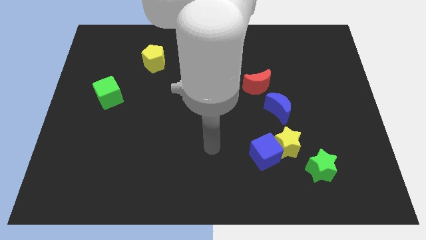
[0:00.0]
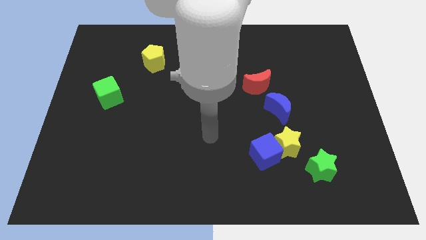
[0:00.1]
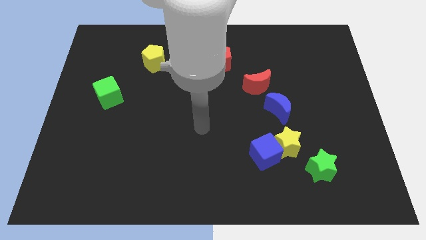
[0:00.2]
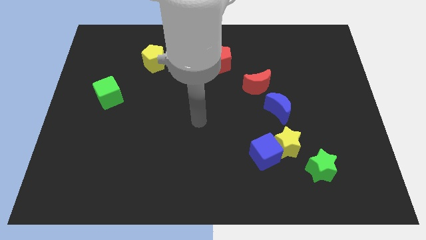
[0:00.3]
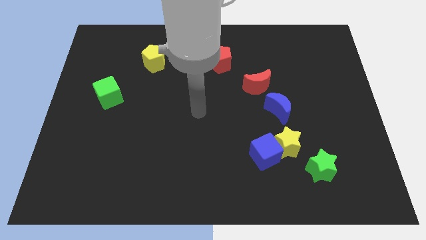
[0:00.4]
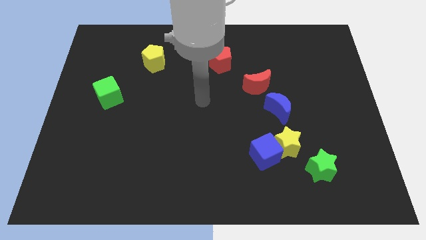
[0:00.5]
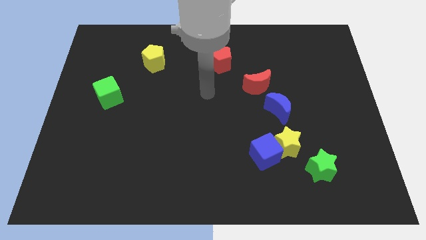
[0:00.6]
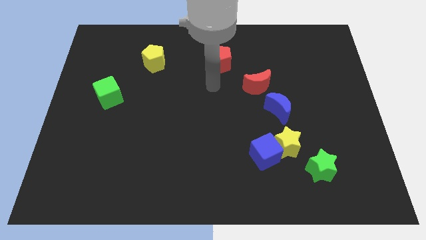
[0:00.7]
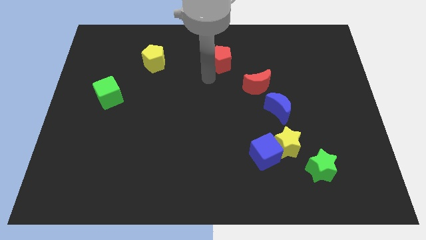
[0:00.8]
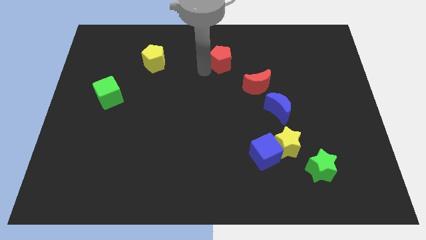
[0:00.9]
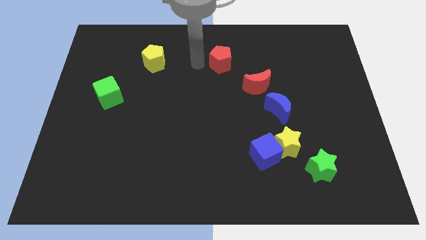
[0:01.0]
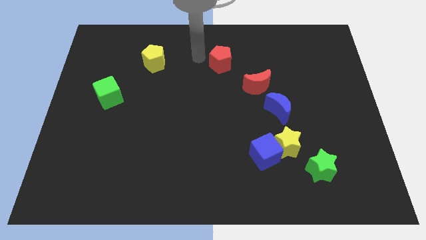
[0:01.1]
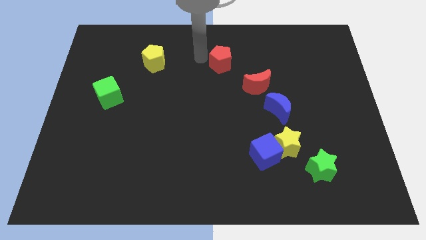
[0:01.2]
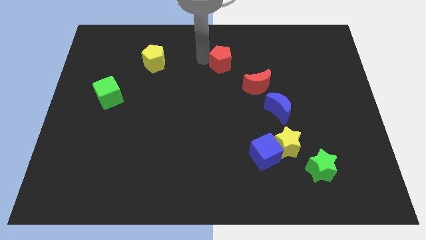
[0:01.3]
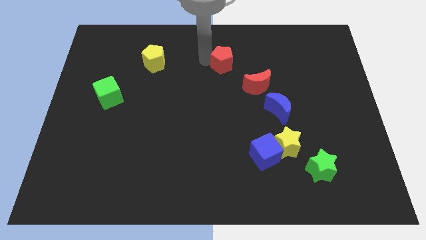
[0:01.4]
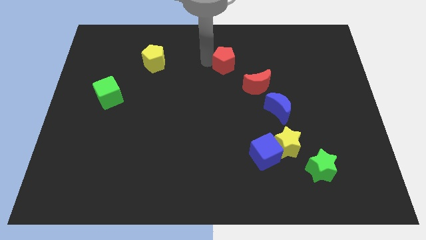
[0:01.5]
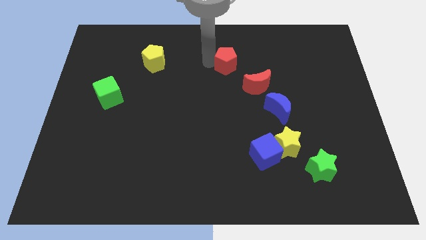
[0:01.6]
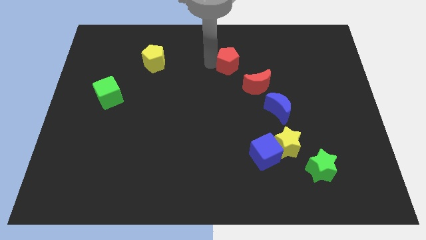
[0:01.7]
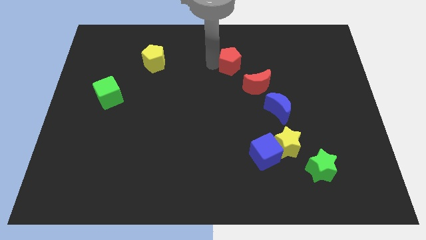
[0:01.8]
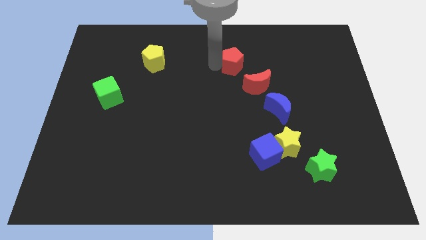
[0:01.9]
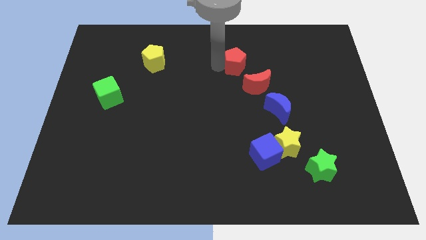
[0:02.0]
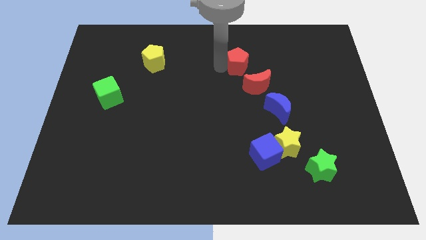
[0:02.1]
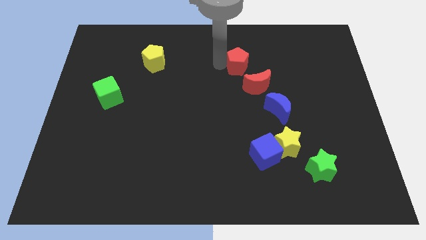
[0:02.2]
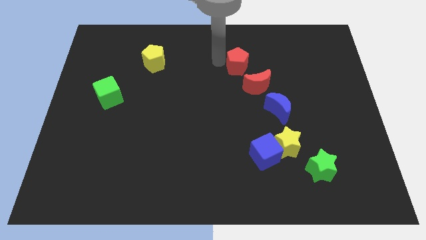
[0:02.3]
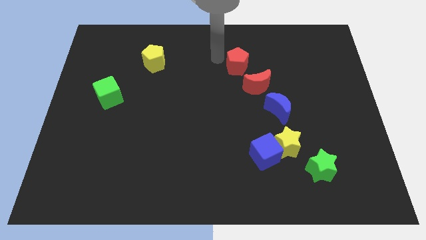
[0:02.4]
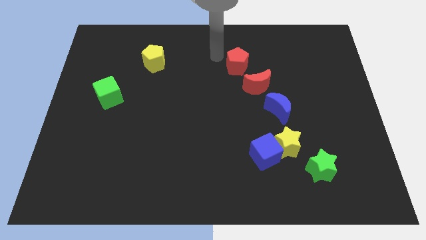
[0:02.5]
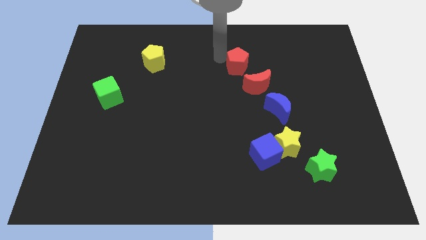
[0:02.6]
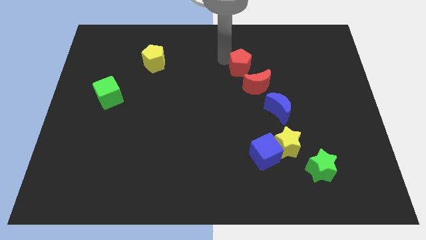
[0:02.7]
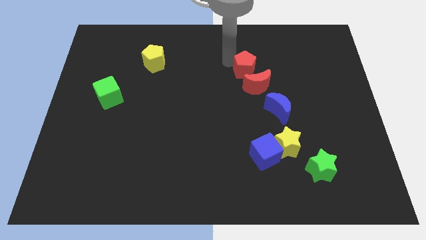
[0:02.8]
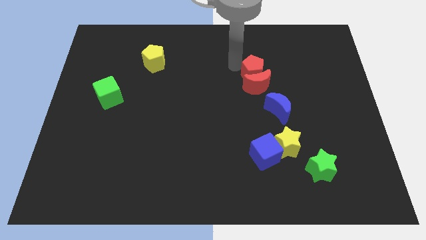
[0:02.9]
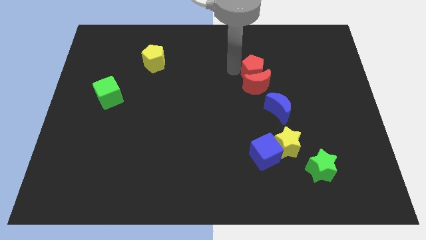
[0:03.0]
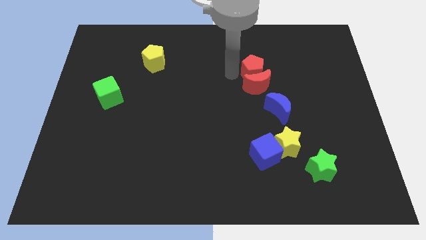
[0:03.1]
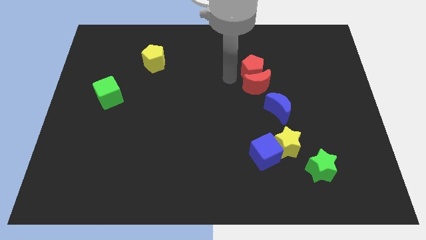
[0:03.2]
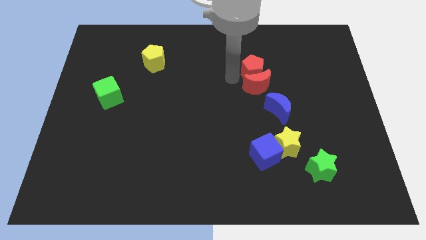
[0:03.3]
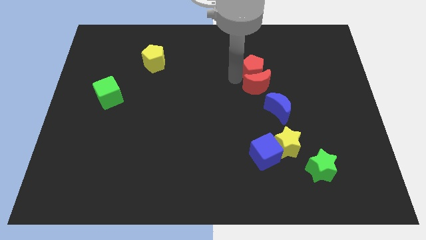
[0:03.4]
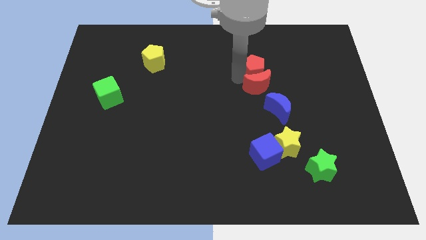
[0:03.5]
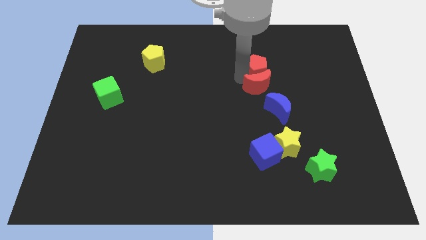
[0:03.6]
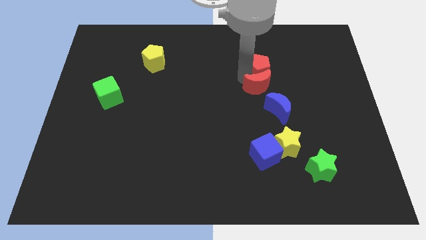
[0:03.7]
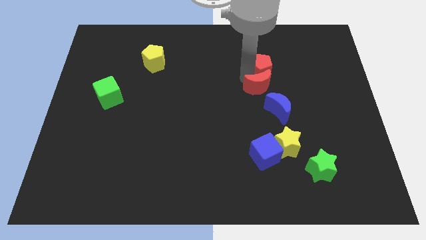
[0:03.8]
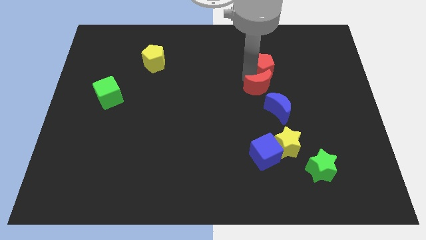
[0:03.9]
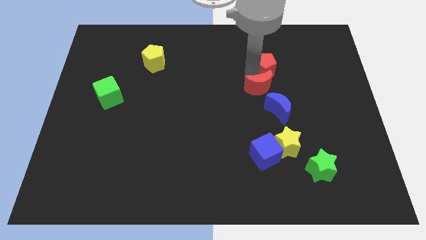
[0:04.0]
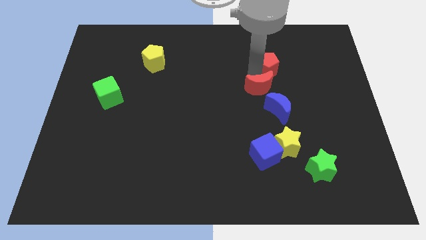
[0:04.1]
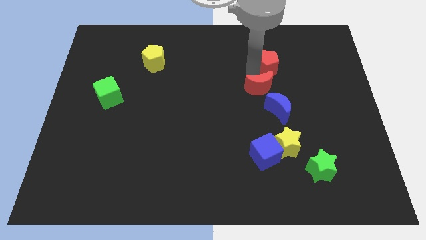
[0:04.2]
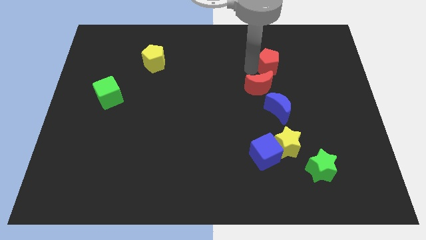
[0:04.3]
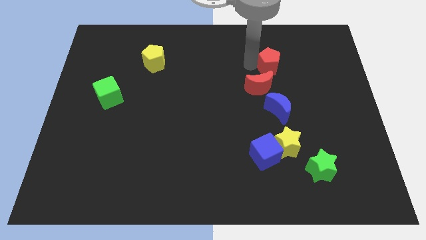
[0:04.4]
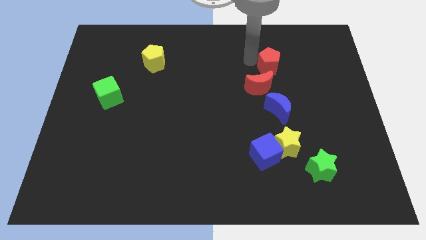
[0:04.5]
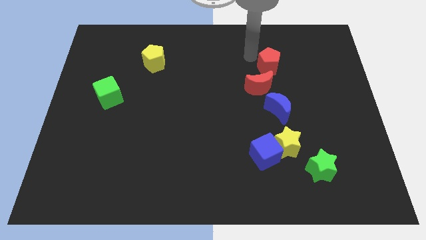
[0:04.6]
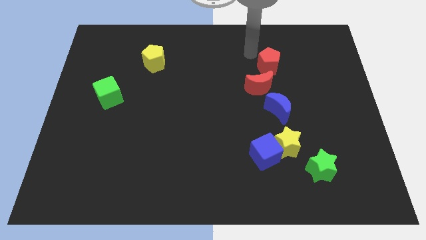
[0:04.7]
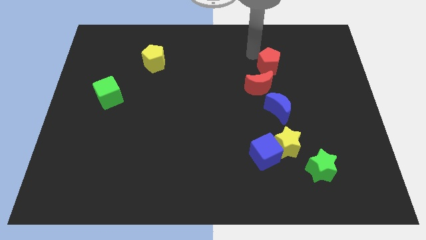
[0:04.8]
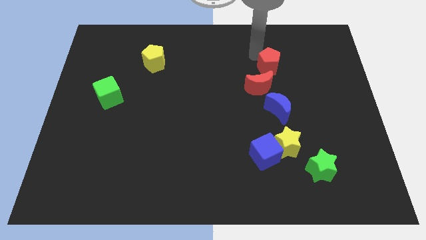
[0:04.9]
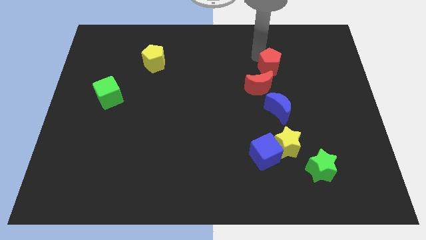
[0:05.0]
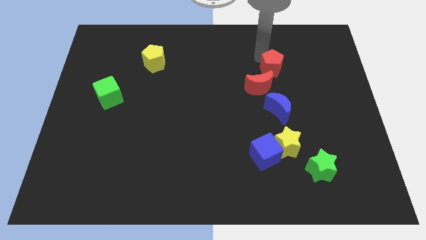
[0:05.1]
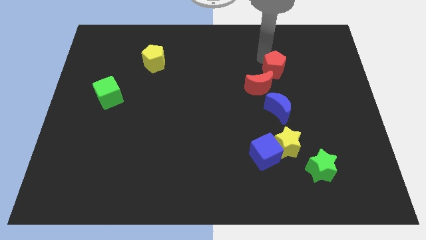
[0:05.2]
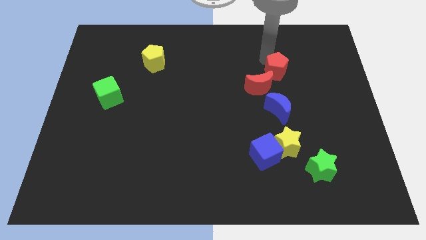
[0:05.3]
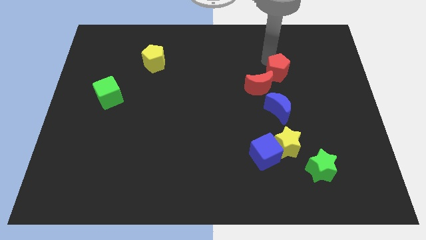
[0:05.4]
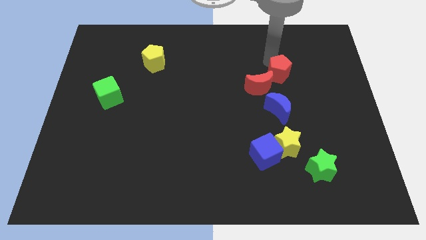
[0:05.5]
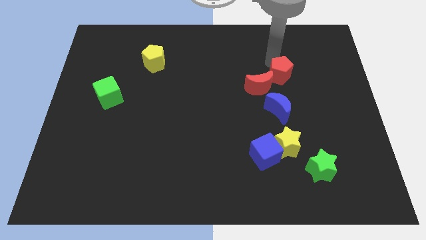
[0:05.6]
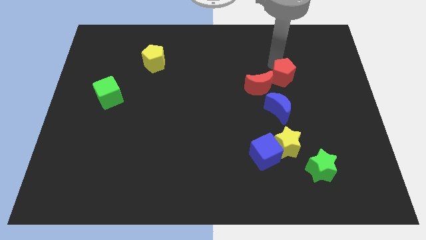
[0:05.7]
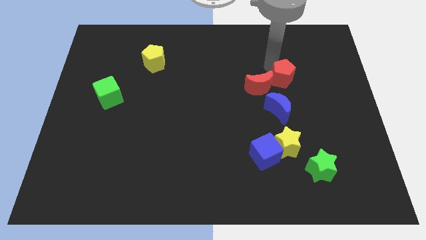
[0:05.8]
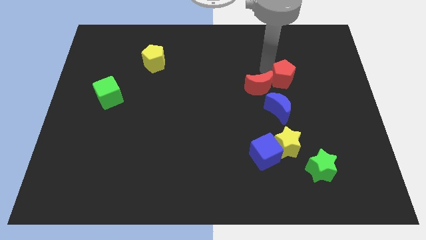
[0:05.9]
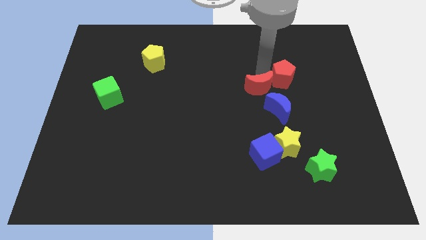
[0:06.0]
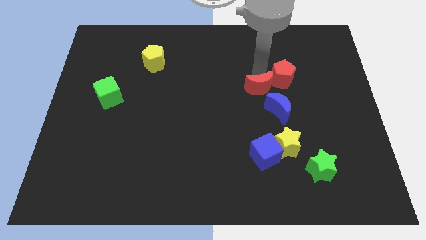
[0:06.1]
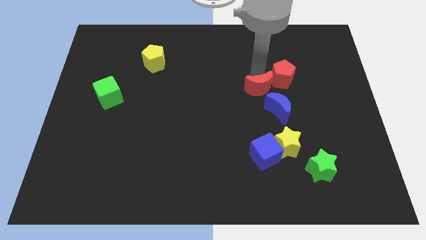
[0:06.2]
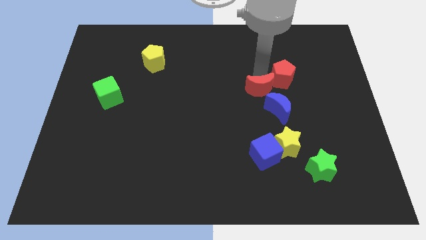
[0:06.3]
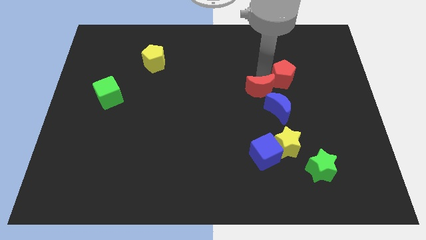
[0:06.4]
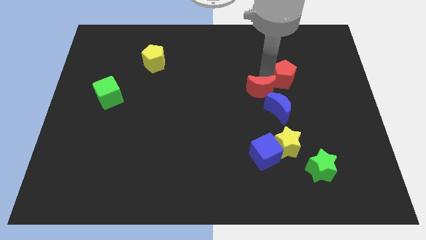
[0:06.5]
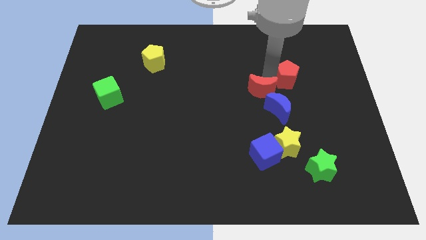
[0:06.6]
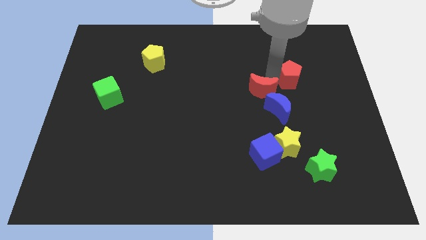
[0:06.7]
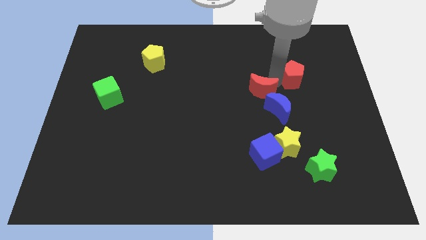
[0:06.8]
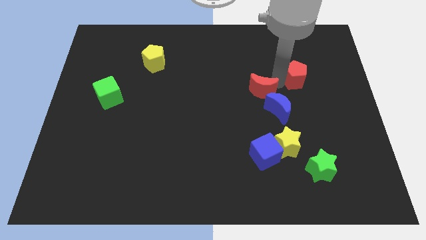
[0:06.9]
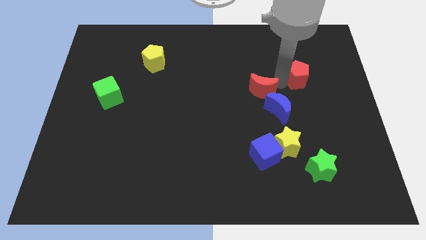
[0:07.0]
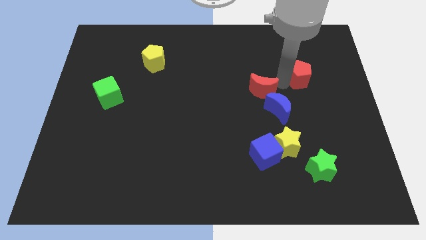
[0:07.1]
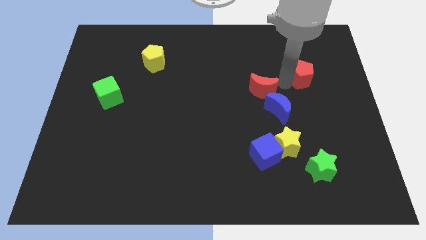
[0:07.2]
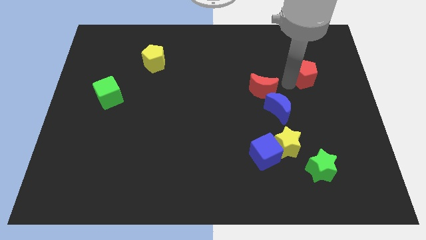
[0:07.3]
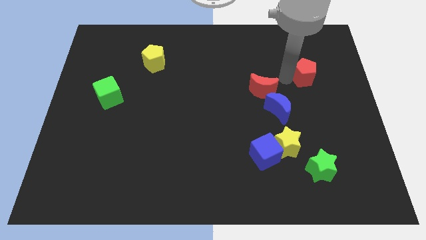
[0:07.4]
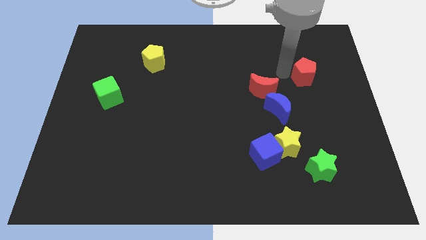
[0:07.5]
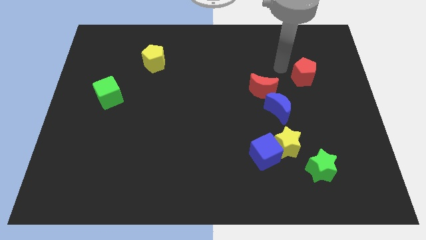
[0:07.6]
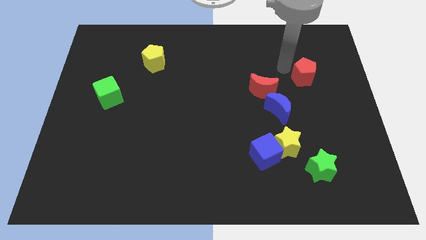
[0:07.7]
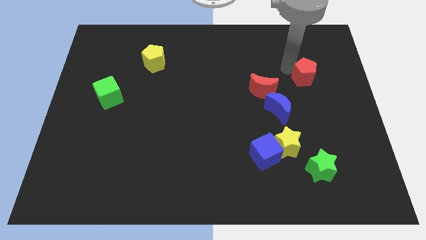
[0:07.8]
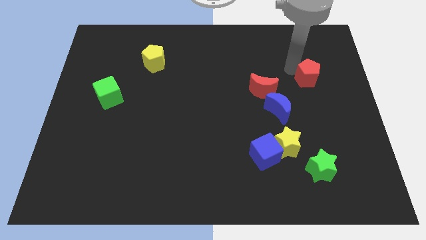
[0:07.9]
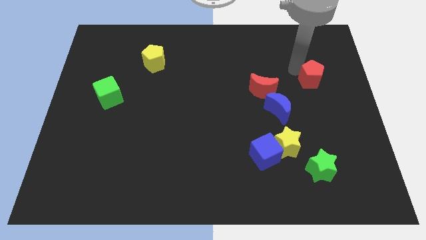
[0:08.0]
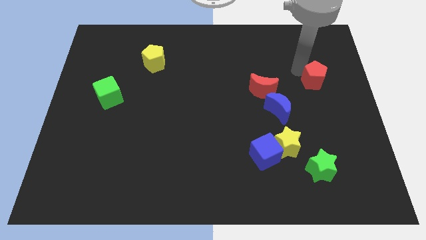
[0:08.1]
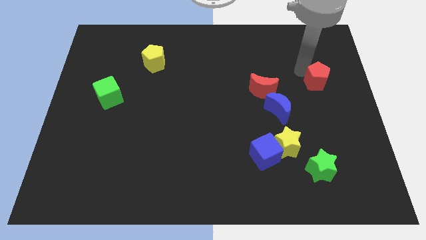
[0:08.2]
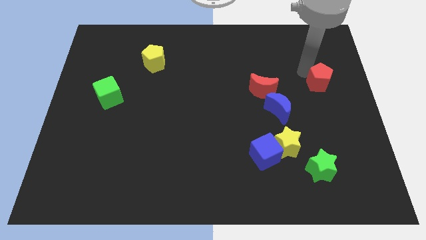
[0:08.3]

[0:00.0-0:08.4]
slide the red pentagon to the center right
